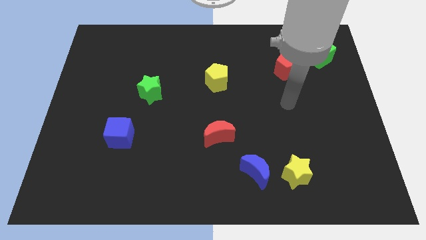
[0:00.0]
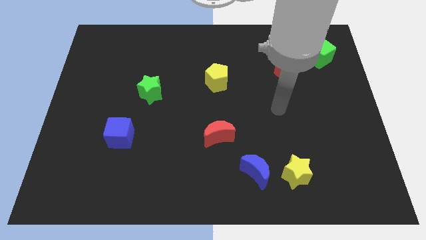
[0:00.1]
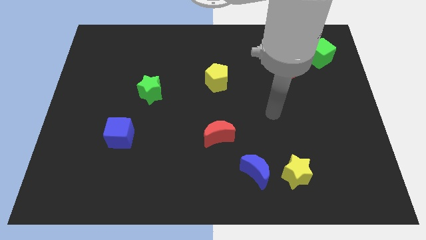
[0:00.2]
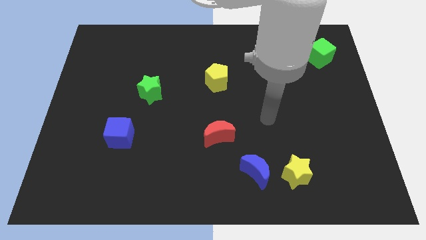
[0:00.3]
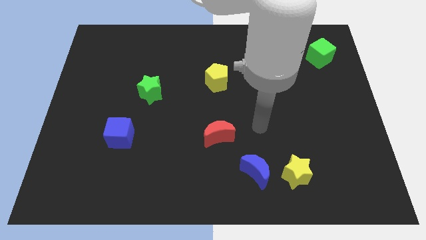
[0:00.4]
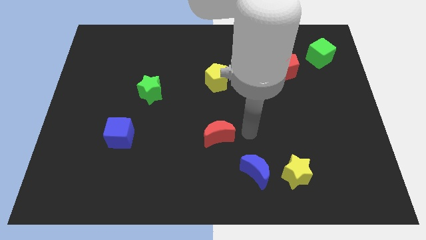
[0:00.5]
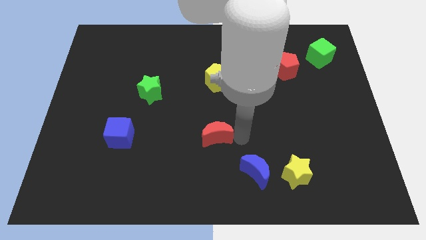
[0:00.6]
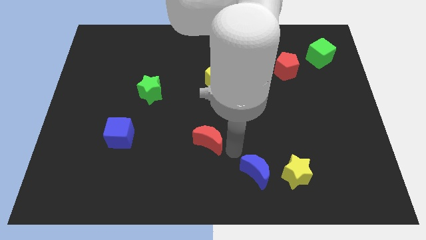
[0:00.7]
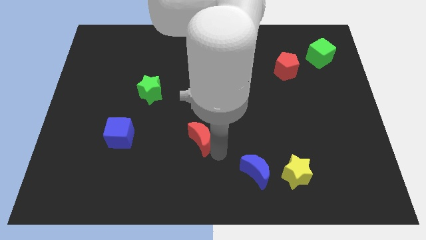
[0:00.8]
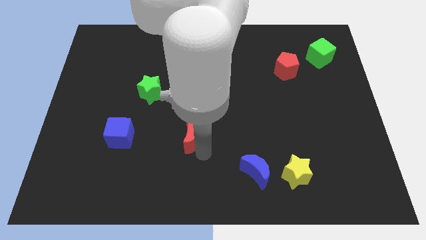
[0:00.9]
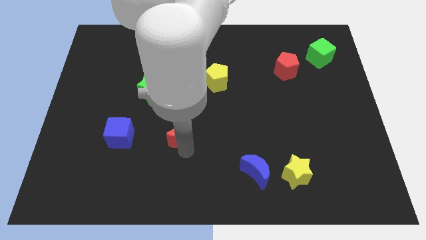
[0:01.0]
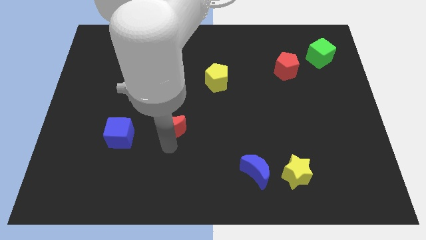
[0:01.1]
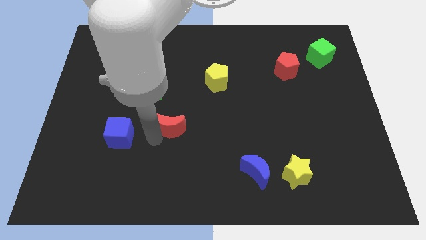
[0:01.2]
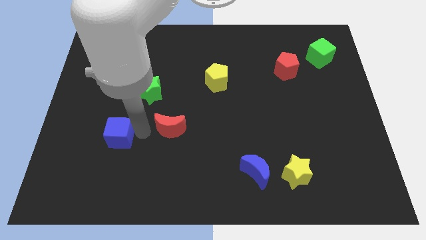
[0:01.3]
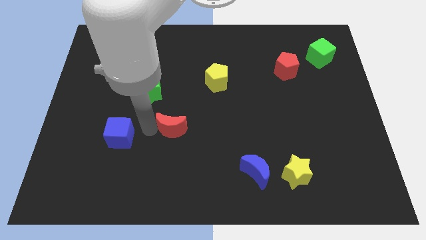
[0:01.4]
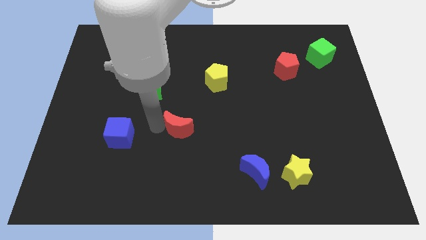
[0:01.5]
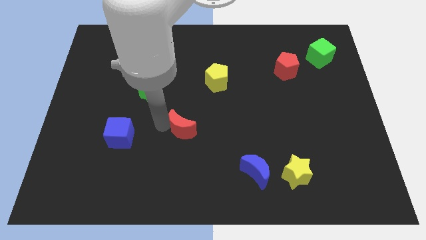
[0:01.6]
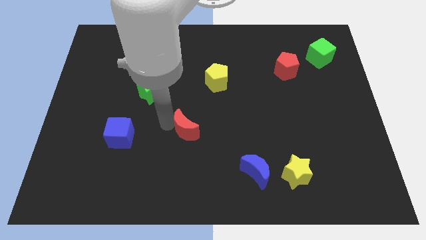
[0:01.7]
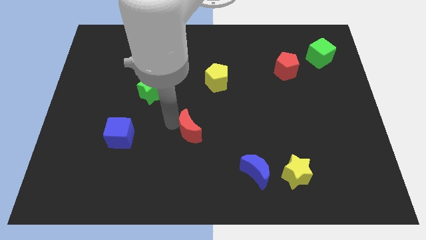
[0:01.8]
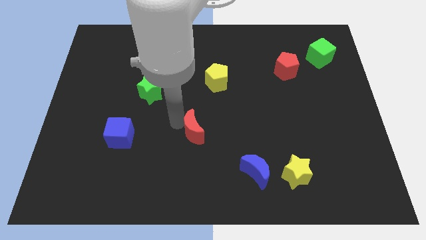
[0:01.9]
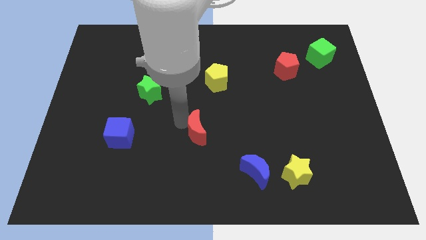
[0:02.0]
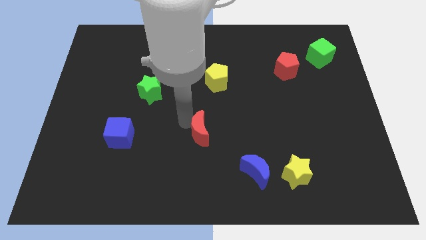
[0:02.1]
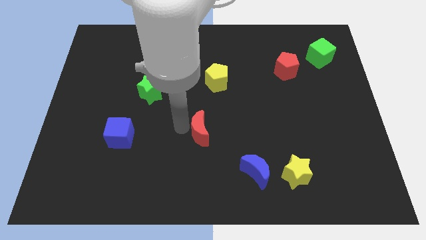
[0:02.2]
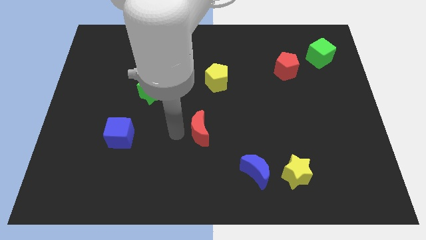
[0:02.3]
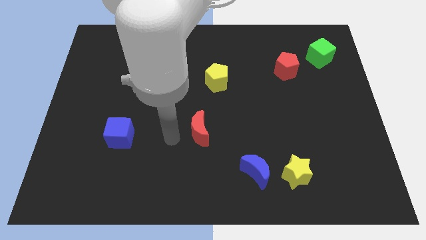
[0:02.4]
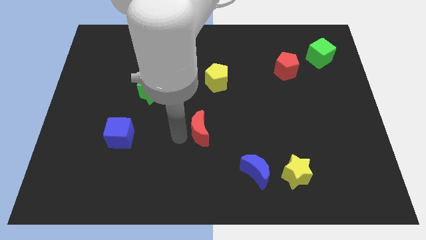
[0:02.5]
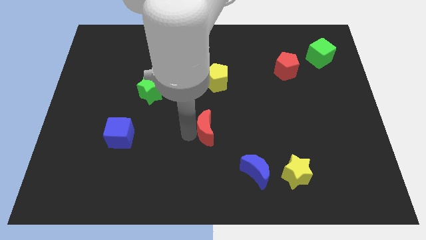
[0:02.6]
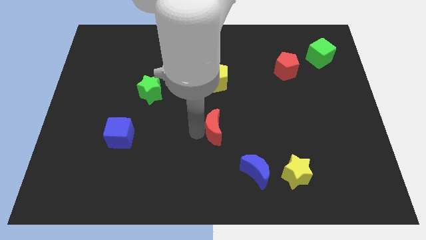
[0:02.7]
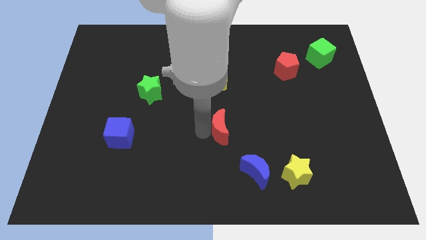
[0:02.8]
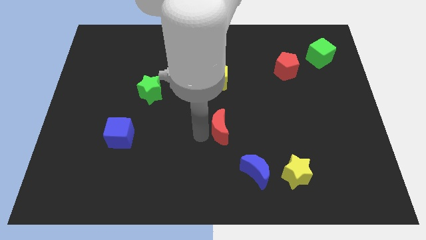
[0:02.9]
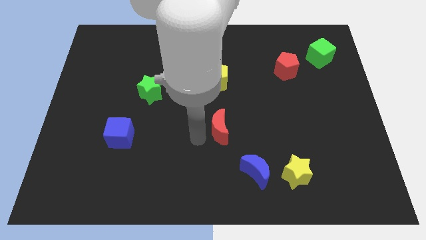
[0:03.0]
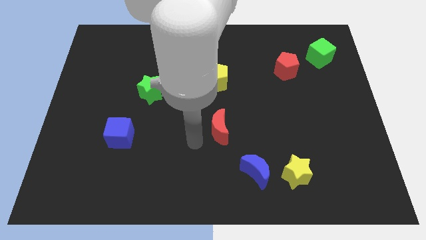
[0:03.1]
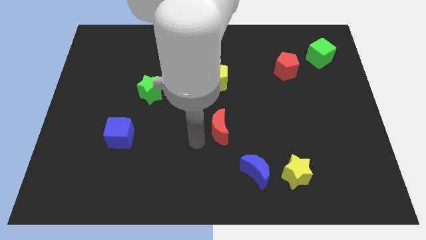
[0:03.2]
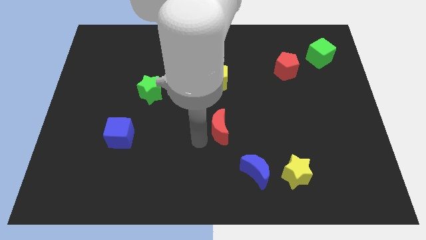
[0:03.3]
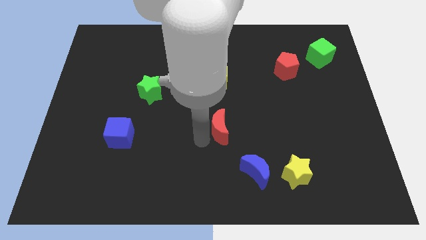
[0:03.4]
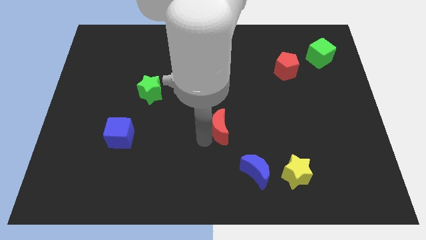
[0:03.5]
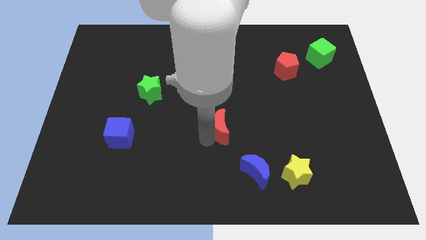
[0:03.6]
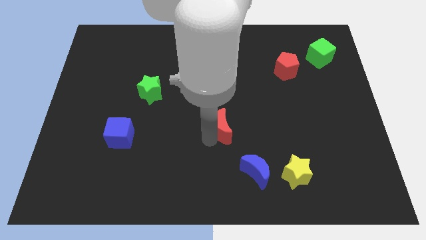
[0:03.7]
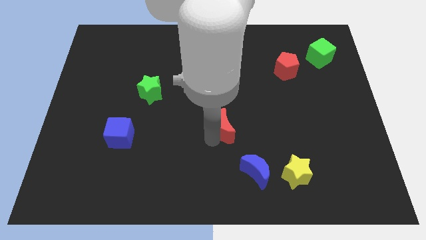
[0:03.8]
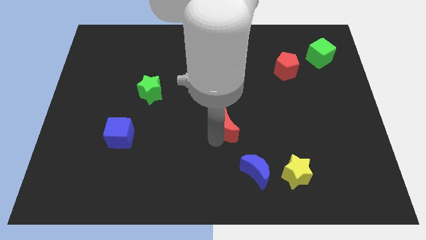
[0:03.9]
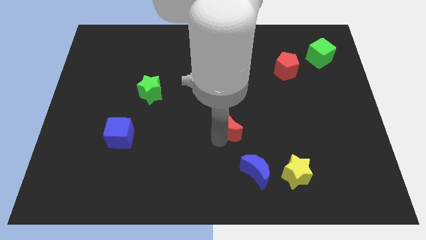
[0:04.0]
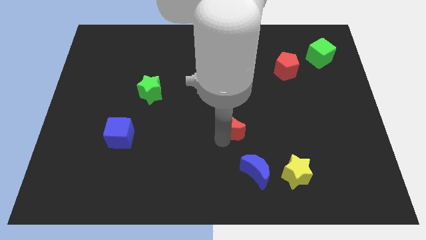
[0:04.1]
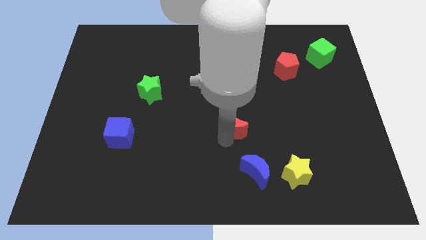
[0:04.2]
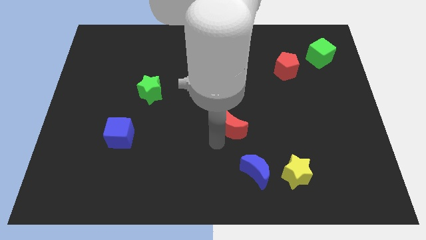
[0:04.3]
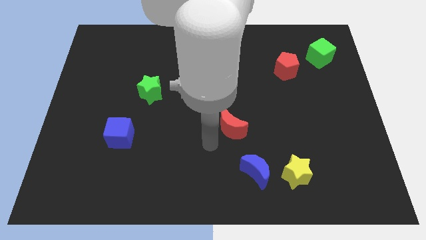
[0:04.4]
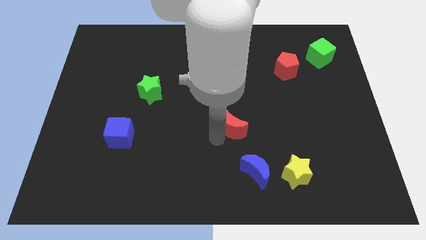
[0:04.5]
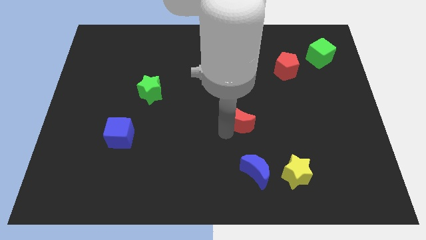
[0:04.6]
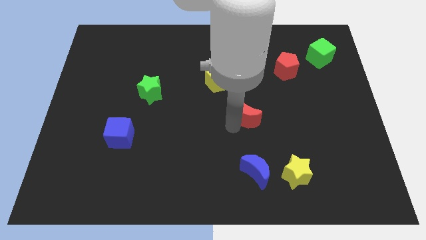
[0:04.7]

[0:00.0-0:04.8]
push the red moon upwards and then right somewhat

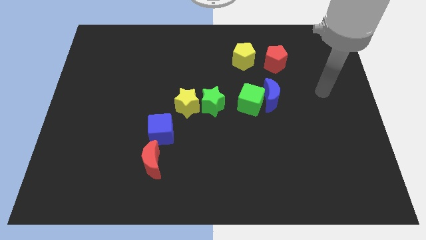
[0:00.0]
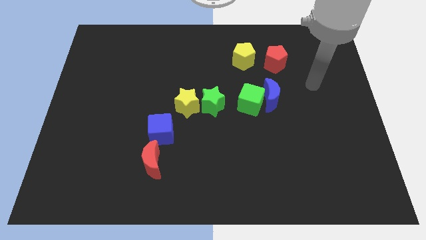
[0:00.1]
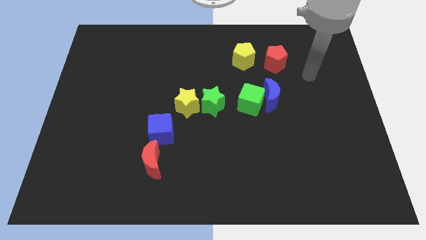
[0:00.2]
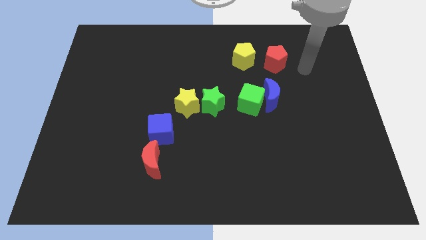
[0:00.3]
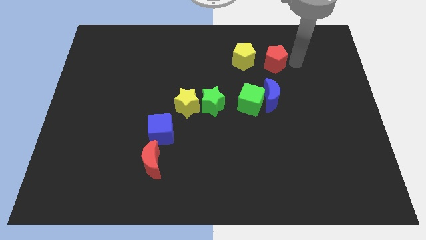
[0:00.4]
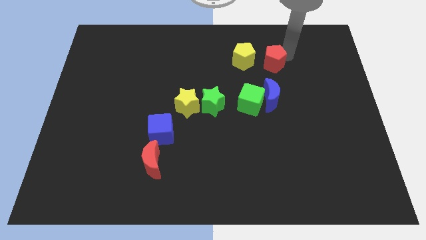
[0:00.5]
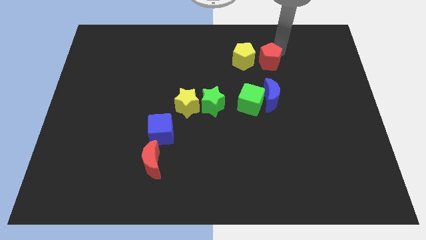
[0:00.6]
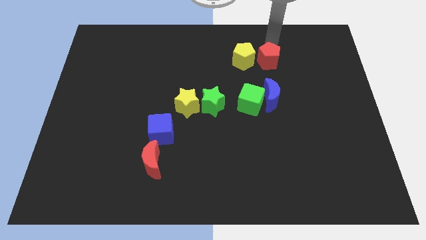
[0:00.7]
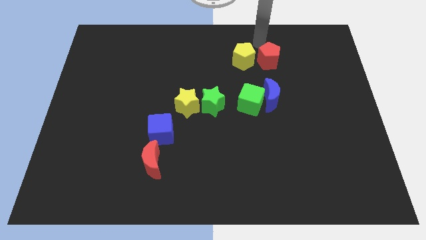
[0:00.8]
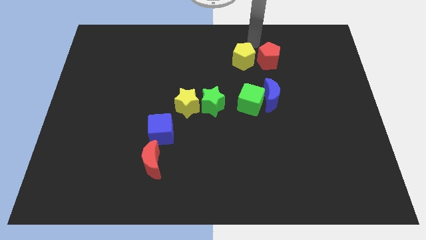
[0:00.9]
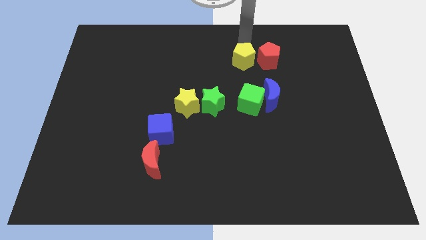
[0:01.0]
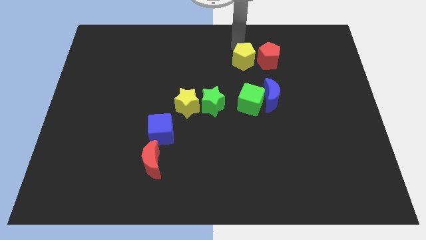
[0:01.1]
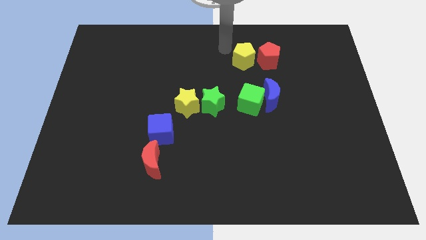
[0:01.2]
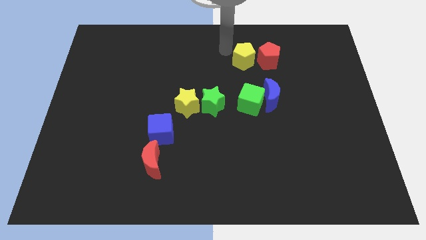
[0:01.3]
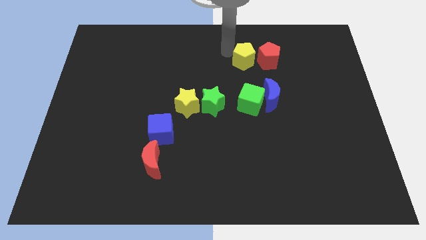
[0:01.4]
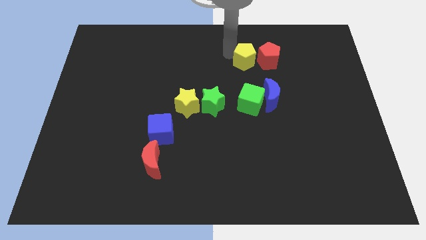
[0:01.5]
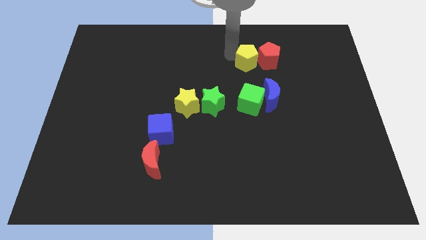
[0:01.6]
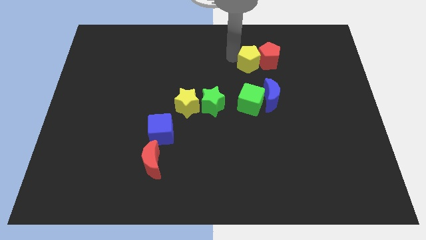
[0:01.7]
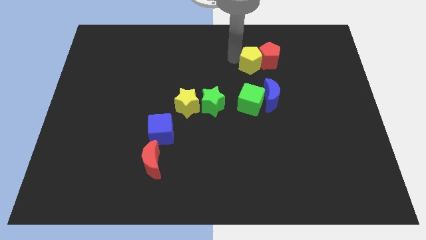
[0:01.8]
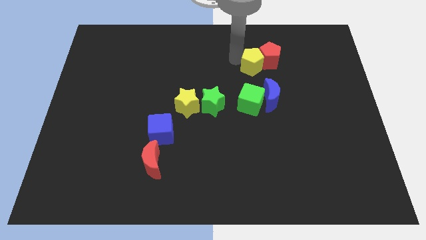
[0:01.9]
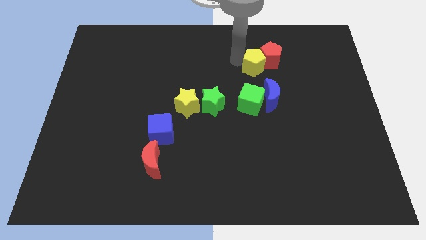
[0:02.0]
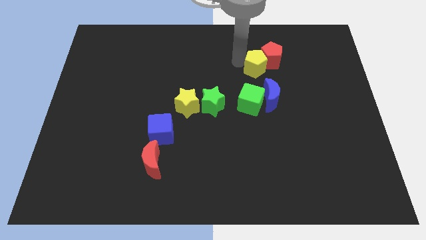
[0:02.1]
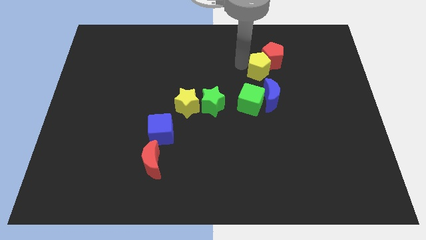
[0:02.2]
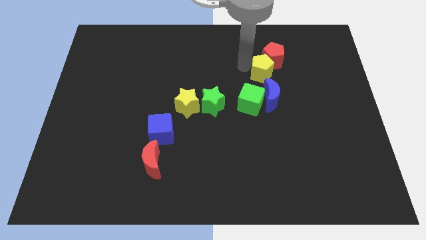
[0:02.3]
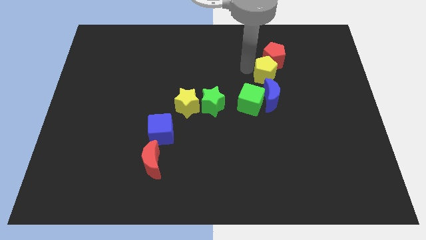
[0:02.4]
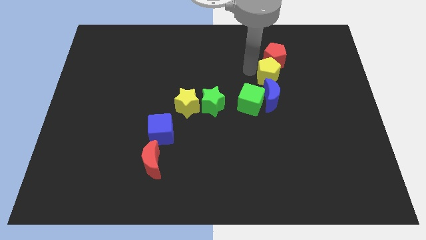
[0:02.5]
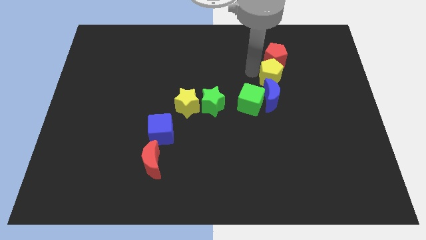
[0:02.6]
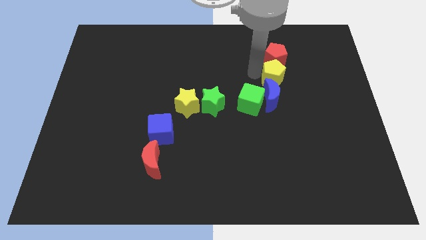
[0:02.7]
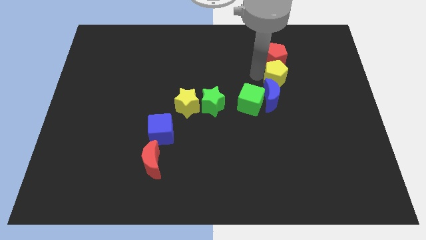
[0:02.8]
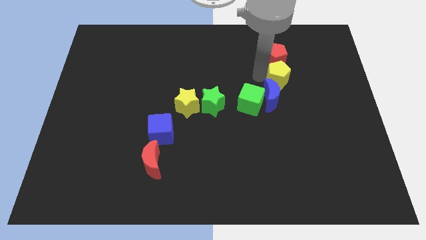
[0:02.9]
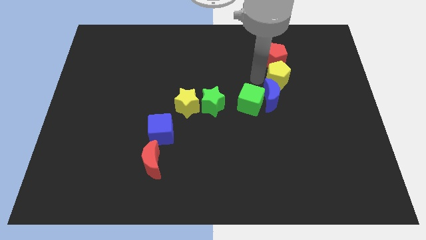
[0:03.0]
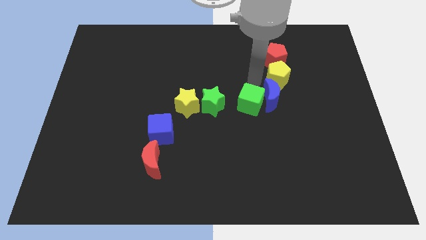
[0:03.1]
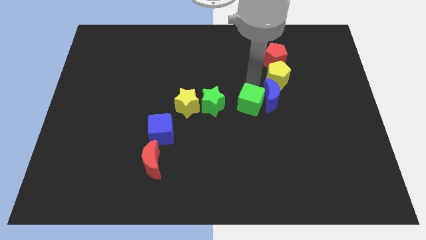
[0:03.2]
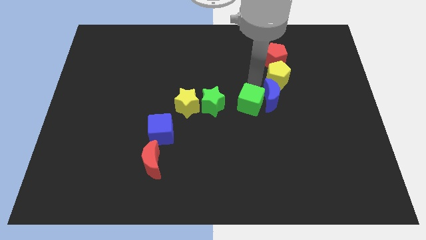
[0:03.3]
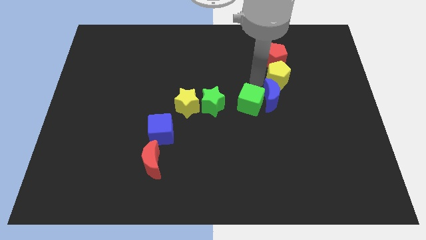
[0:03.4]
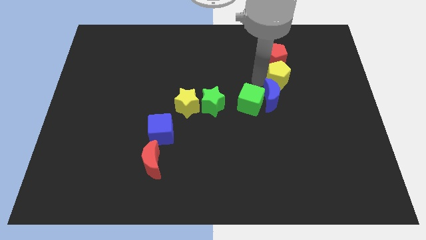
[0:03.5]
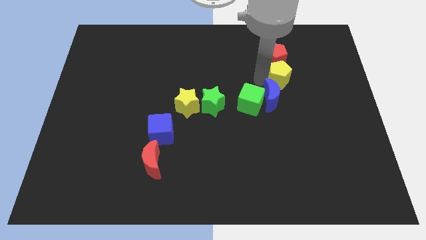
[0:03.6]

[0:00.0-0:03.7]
slightly push the yellow pentagon to the right
